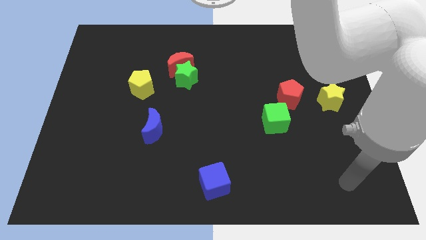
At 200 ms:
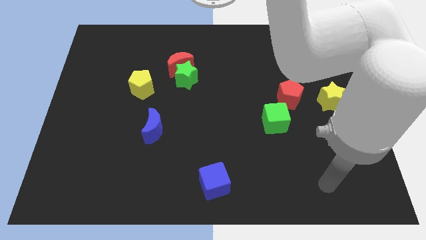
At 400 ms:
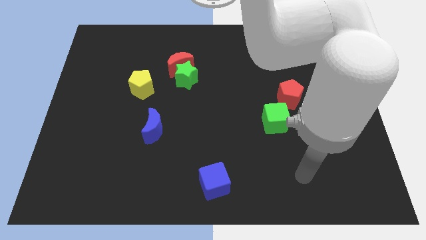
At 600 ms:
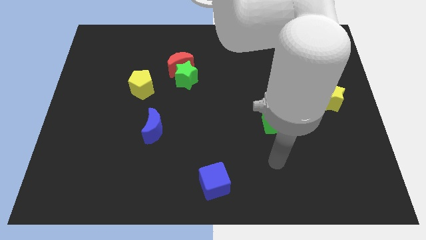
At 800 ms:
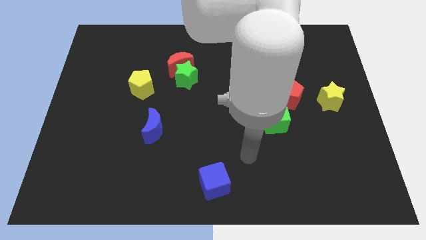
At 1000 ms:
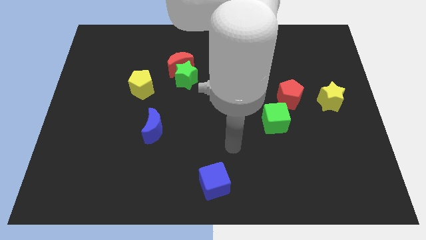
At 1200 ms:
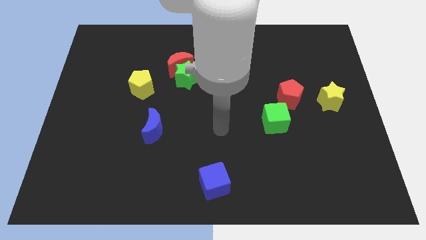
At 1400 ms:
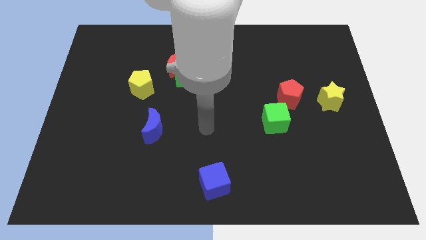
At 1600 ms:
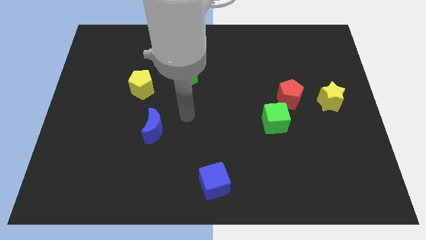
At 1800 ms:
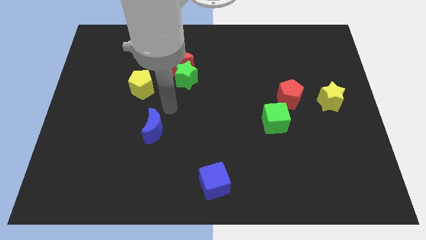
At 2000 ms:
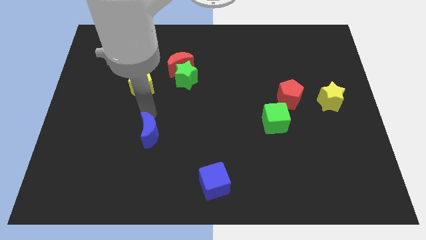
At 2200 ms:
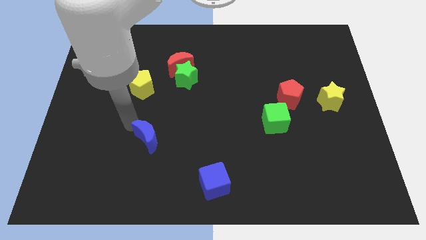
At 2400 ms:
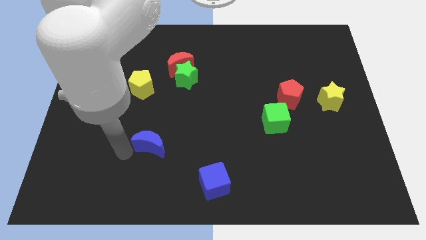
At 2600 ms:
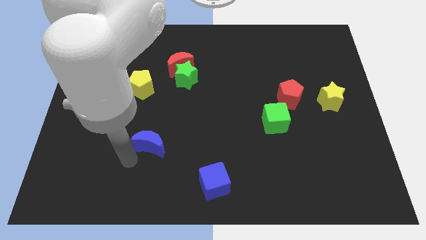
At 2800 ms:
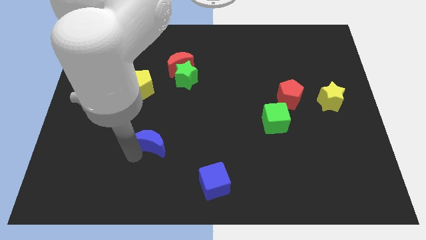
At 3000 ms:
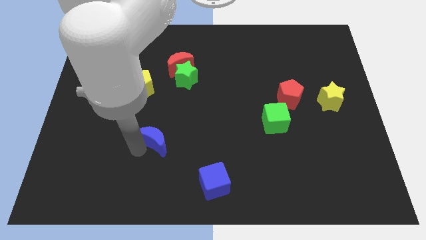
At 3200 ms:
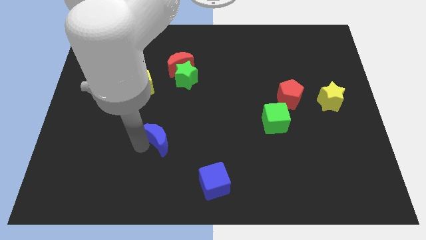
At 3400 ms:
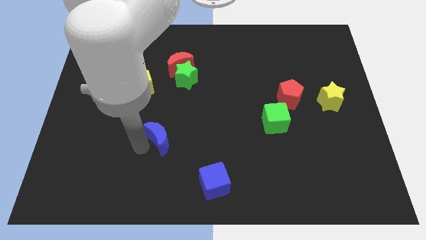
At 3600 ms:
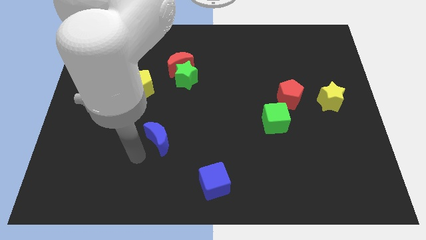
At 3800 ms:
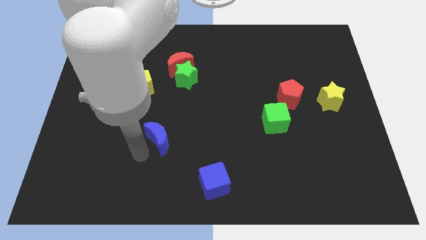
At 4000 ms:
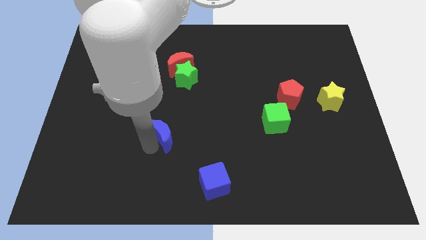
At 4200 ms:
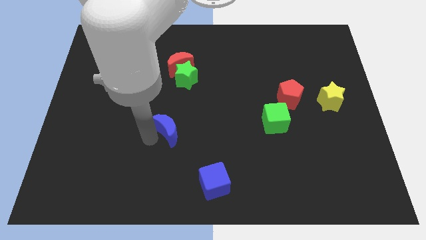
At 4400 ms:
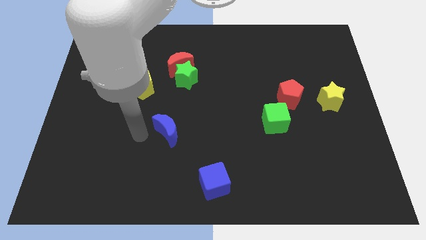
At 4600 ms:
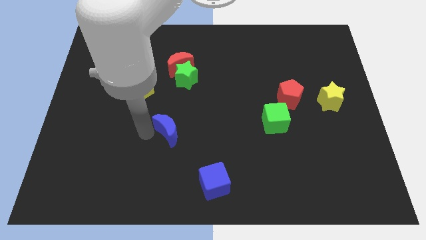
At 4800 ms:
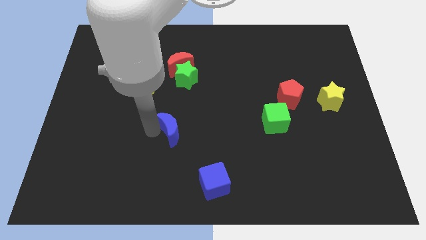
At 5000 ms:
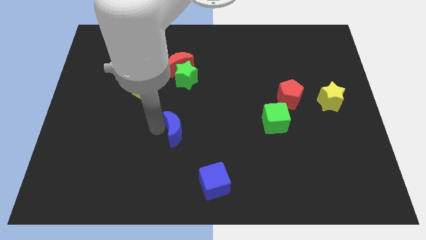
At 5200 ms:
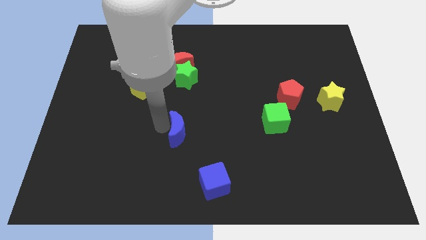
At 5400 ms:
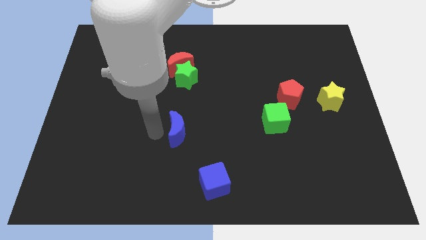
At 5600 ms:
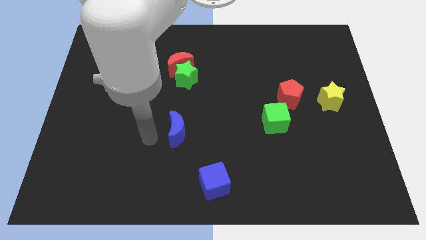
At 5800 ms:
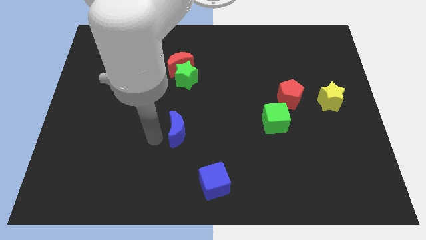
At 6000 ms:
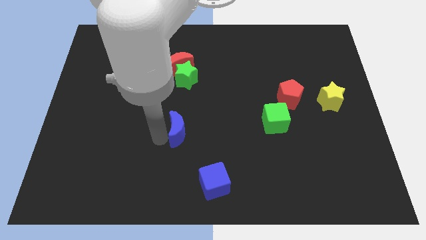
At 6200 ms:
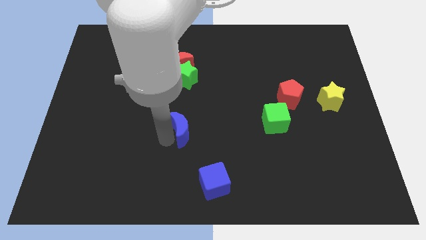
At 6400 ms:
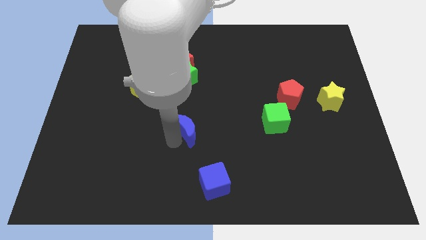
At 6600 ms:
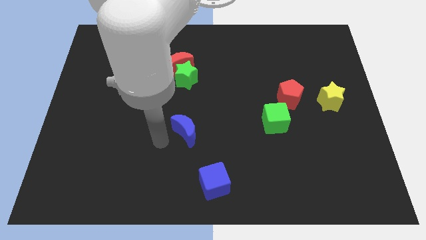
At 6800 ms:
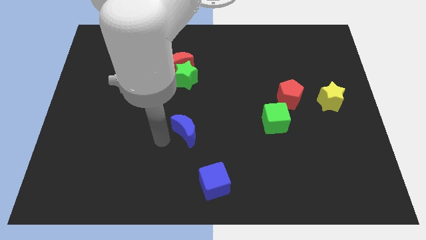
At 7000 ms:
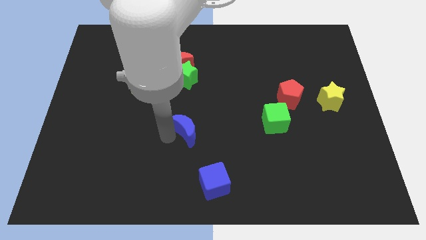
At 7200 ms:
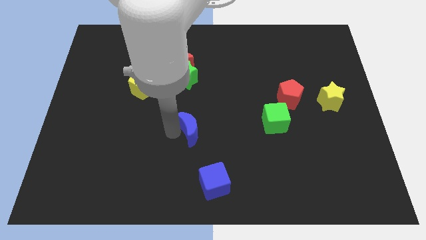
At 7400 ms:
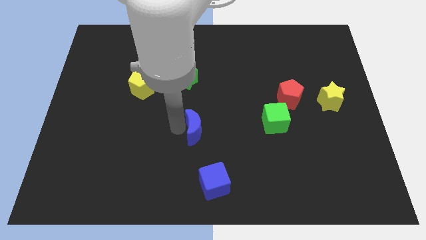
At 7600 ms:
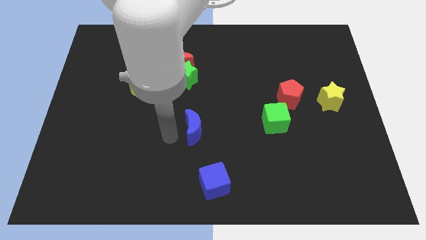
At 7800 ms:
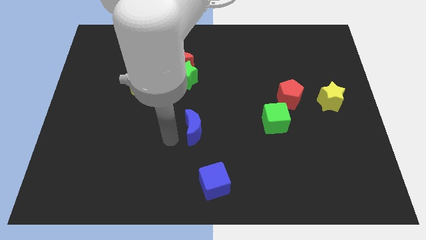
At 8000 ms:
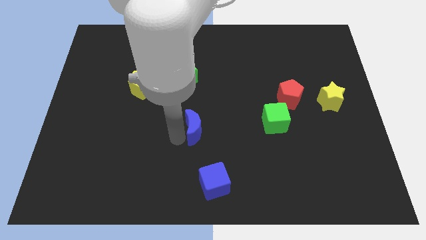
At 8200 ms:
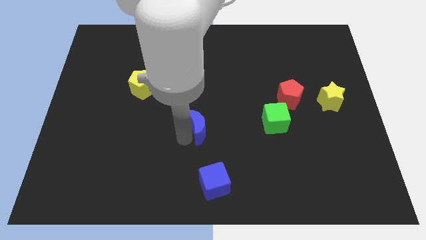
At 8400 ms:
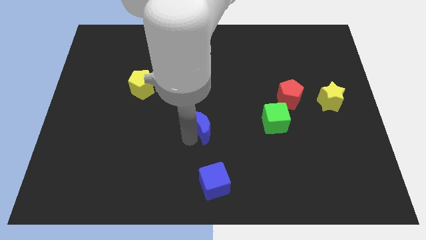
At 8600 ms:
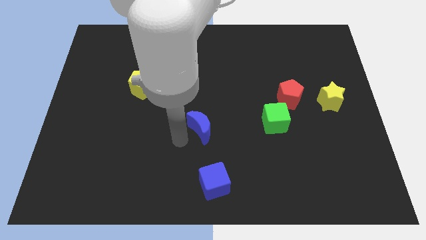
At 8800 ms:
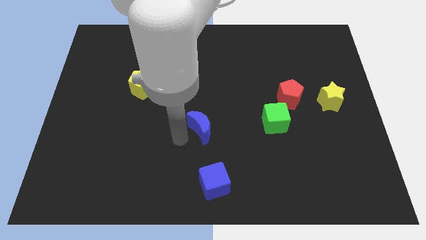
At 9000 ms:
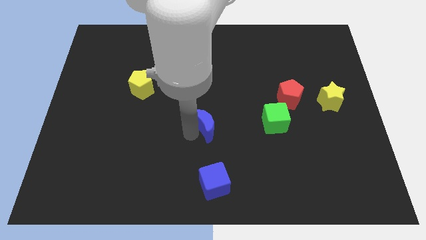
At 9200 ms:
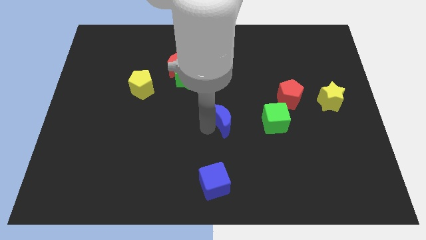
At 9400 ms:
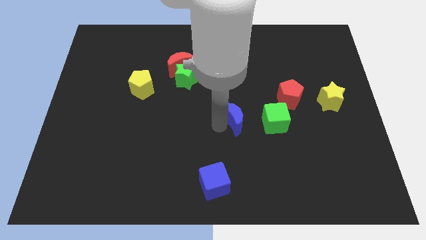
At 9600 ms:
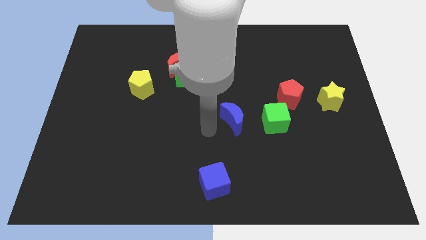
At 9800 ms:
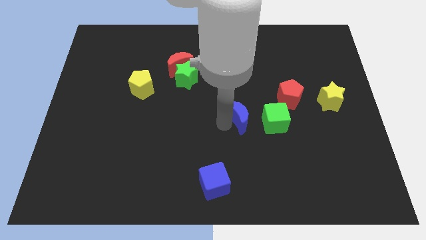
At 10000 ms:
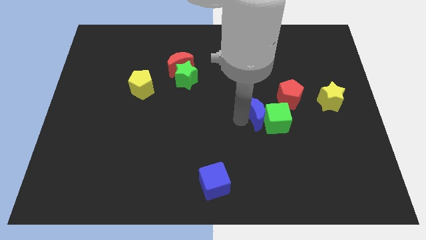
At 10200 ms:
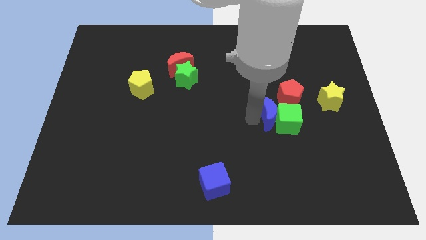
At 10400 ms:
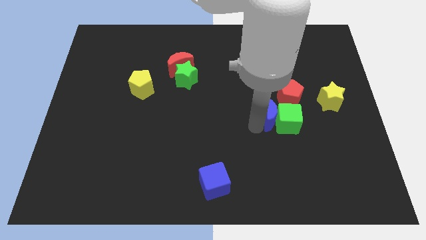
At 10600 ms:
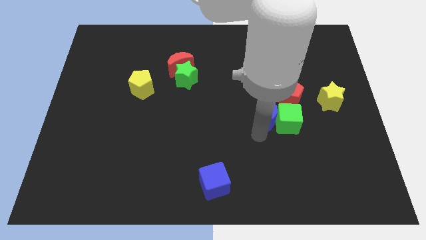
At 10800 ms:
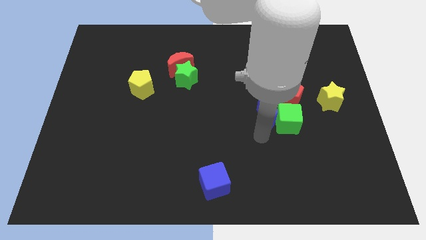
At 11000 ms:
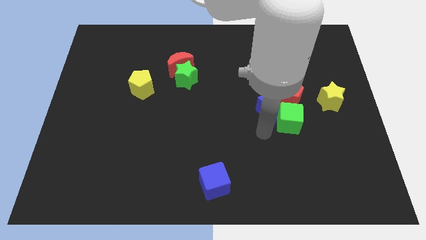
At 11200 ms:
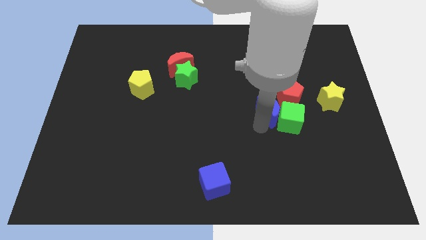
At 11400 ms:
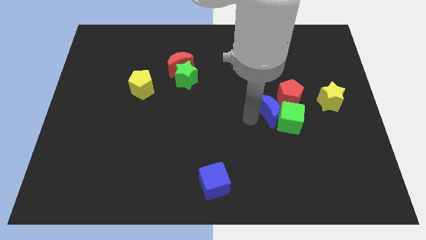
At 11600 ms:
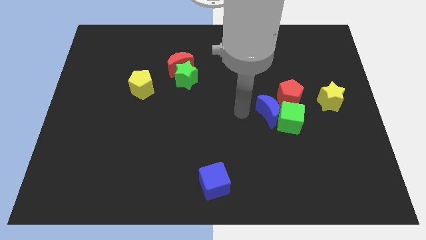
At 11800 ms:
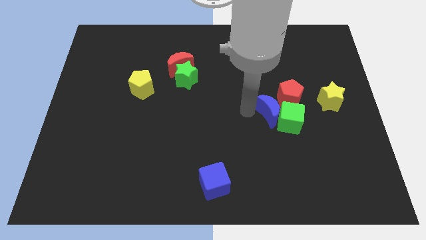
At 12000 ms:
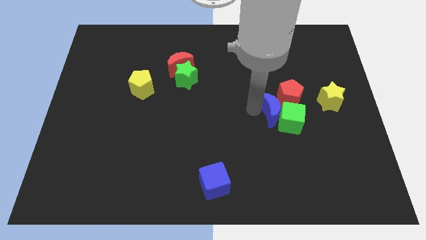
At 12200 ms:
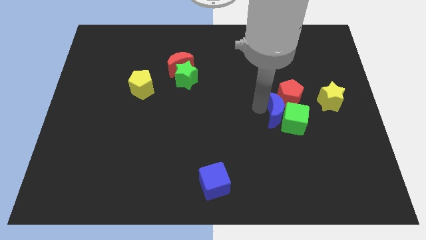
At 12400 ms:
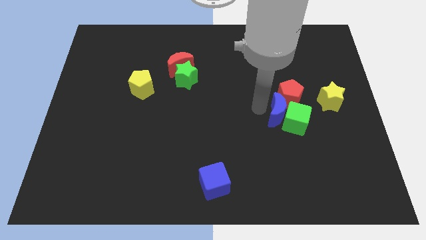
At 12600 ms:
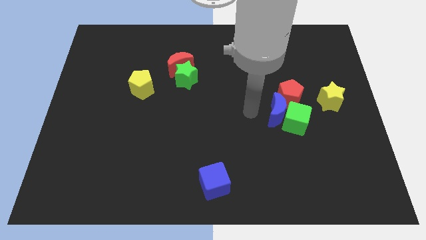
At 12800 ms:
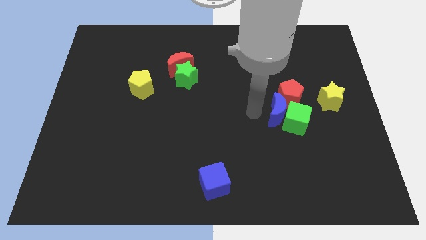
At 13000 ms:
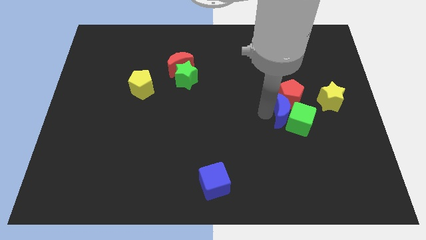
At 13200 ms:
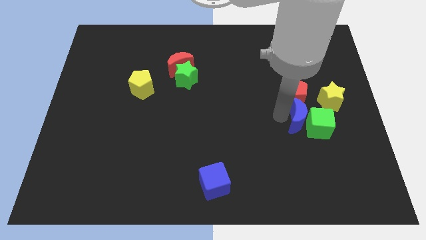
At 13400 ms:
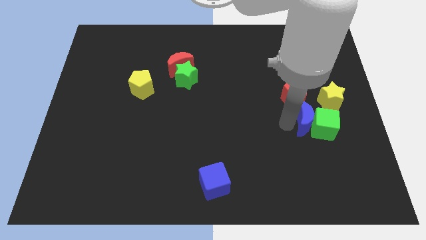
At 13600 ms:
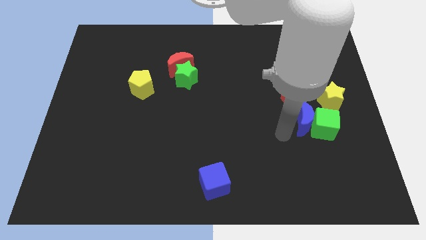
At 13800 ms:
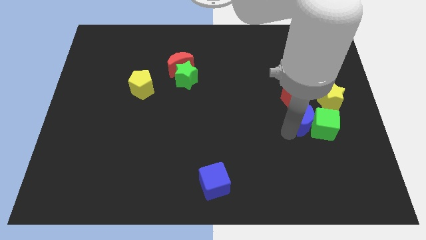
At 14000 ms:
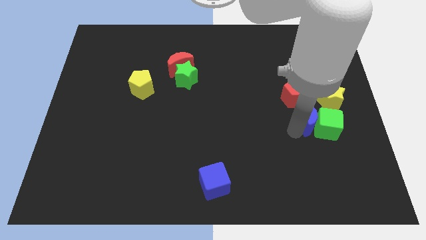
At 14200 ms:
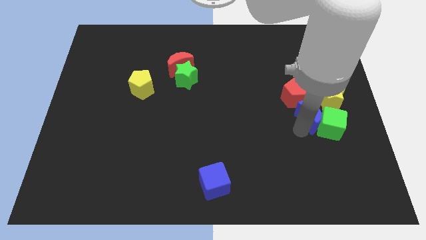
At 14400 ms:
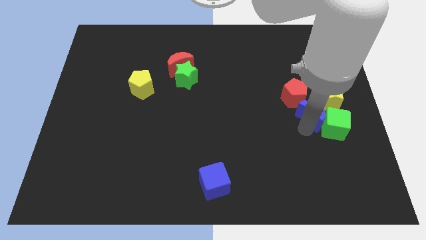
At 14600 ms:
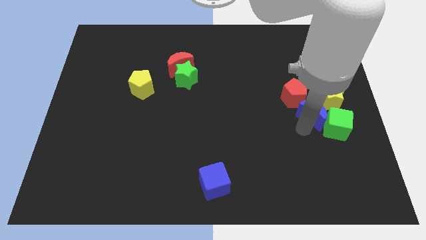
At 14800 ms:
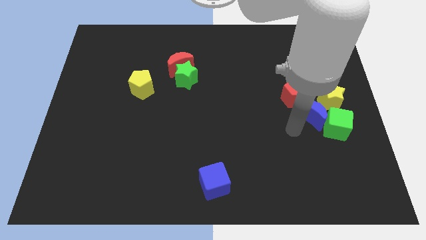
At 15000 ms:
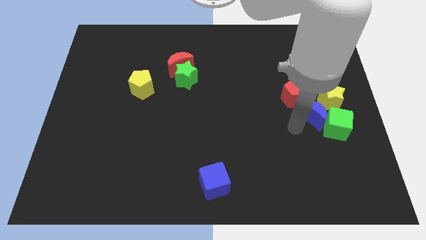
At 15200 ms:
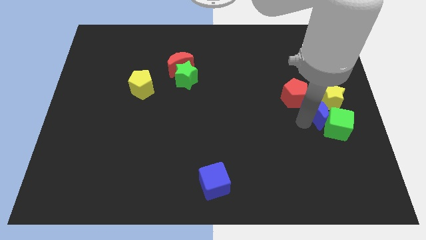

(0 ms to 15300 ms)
move the blue moon next to the yellow star
